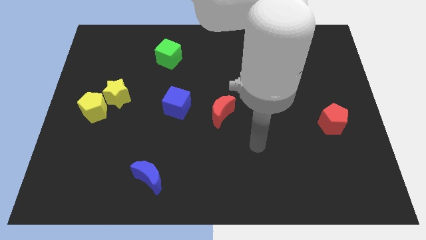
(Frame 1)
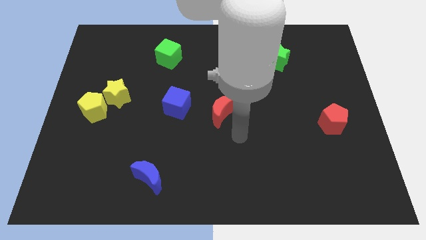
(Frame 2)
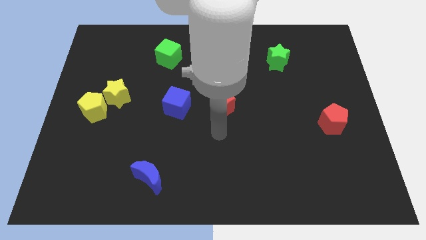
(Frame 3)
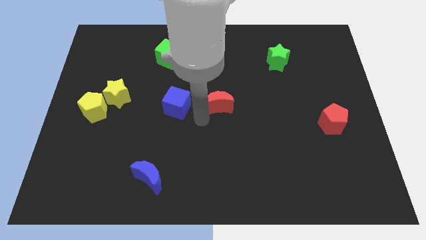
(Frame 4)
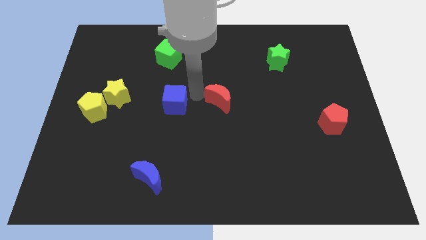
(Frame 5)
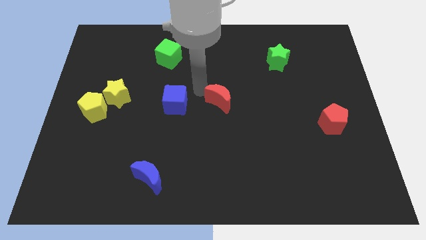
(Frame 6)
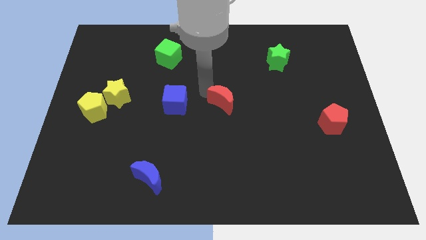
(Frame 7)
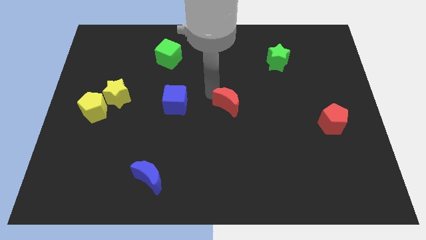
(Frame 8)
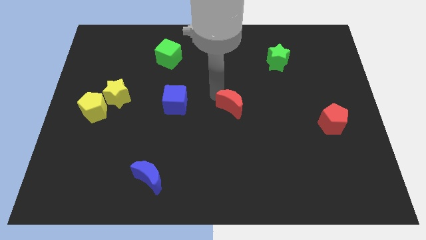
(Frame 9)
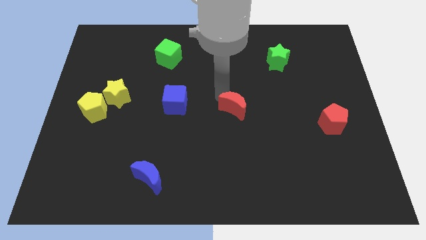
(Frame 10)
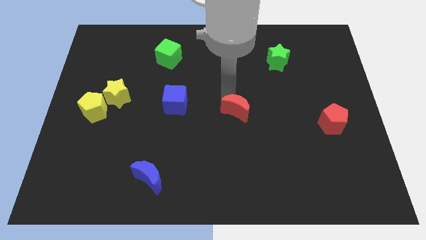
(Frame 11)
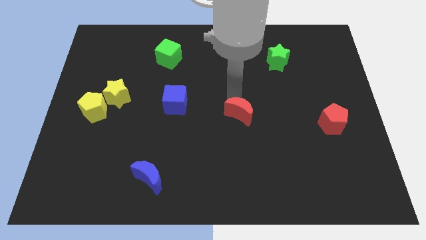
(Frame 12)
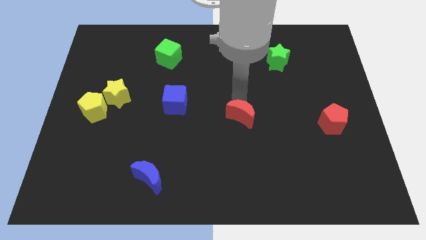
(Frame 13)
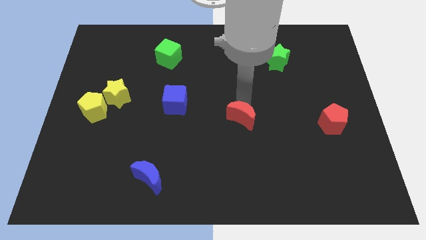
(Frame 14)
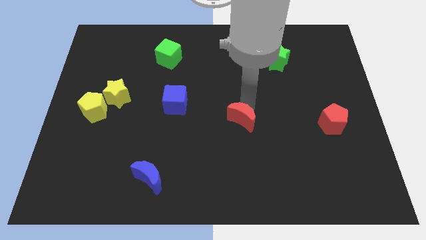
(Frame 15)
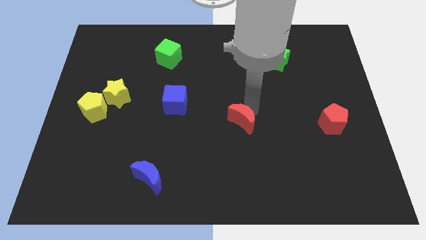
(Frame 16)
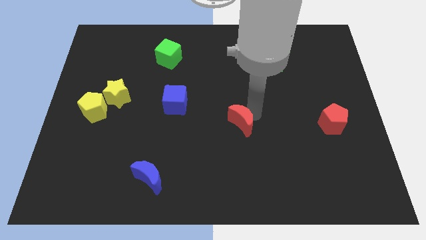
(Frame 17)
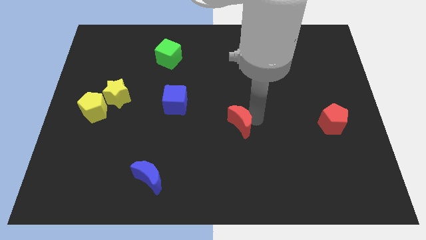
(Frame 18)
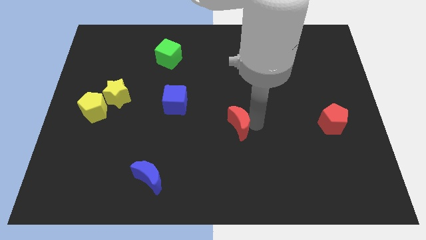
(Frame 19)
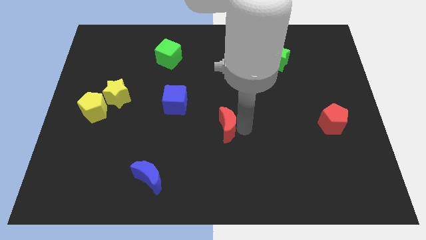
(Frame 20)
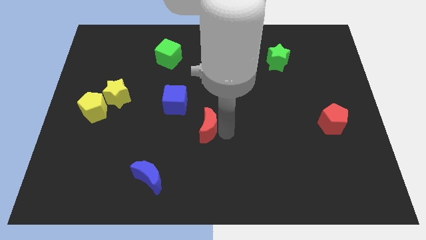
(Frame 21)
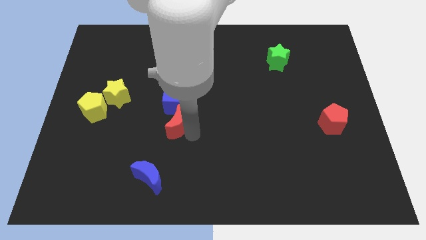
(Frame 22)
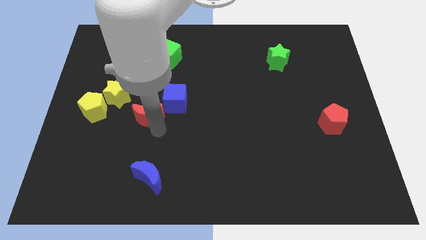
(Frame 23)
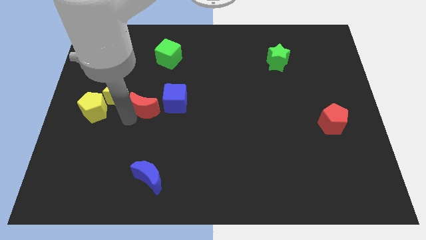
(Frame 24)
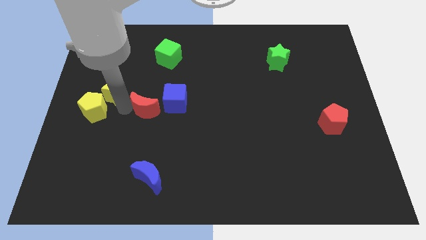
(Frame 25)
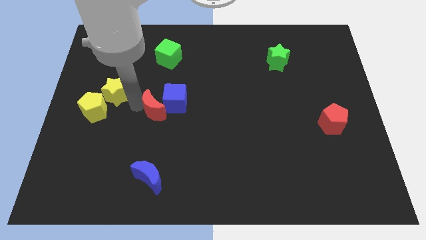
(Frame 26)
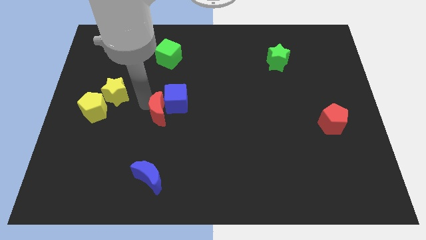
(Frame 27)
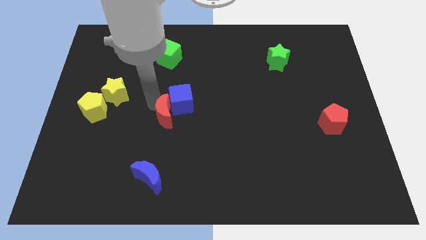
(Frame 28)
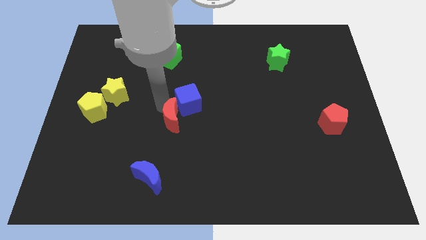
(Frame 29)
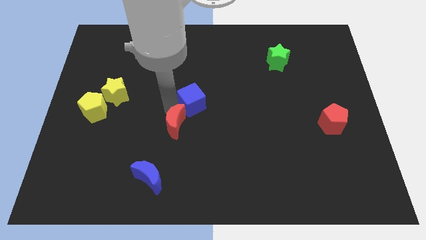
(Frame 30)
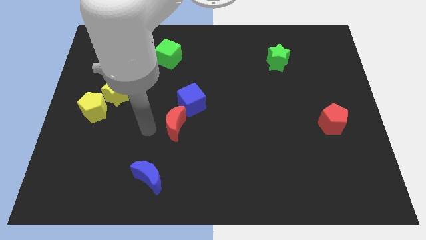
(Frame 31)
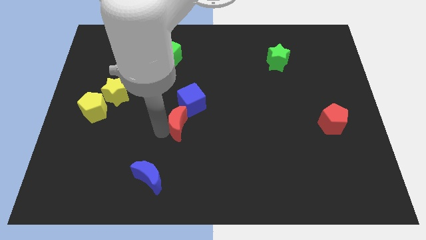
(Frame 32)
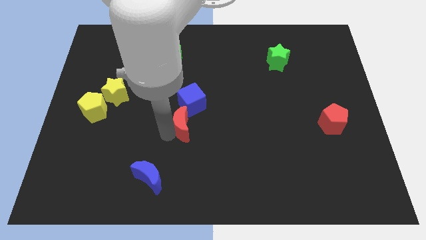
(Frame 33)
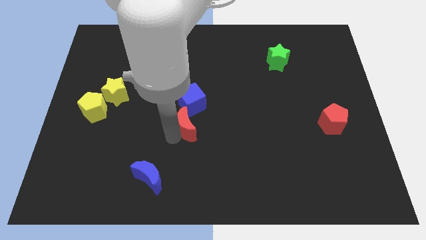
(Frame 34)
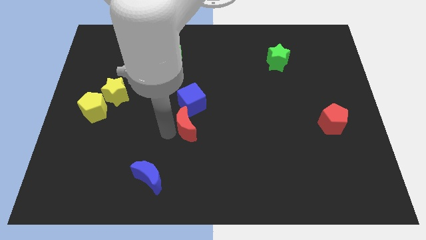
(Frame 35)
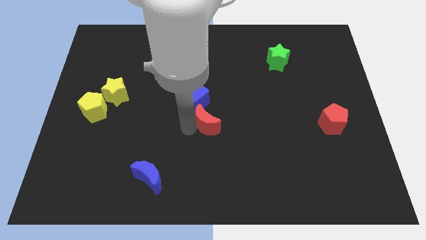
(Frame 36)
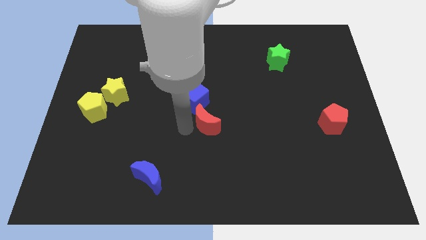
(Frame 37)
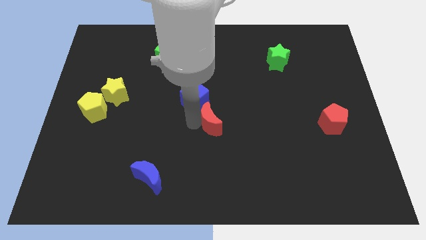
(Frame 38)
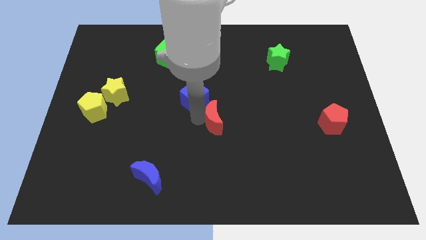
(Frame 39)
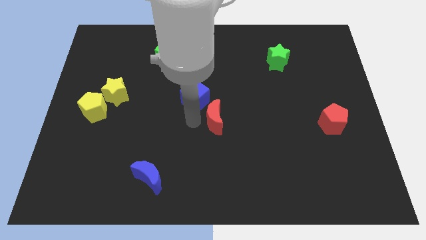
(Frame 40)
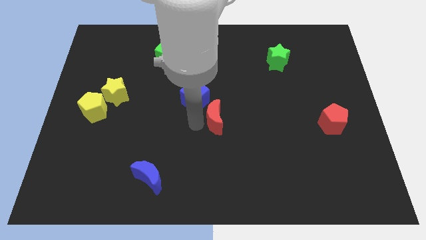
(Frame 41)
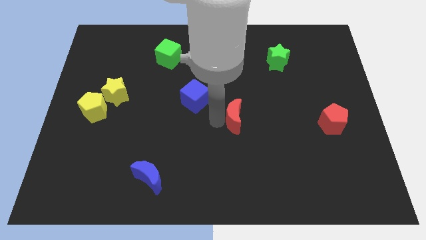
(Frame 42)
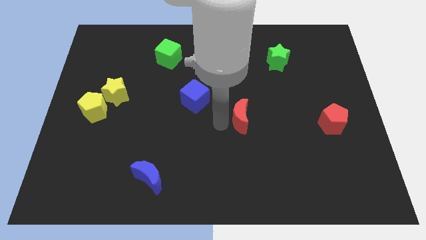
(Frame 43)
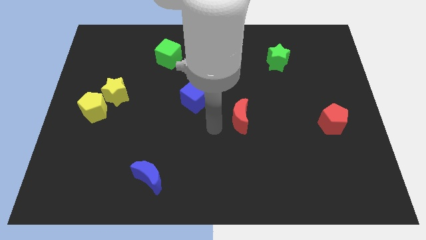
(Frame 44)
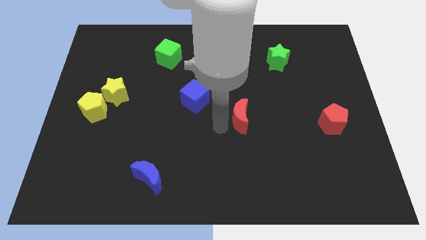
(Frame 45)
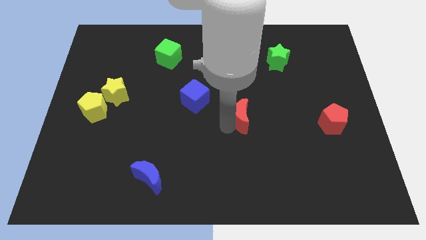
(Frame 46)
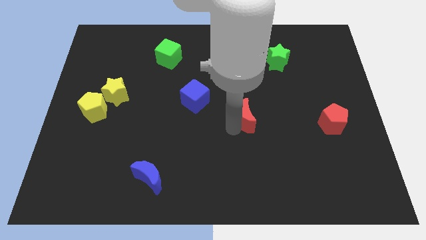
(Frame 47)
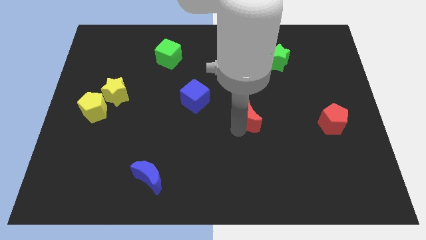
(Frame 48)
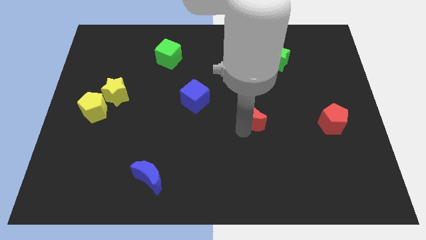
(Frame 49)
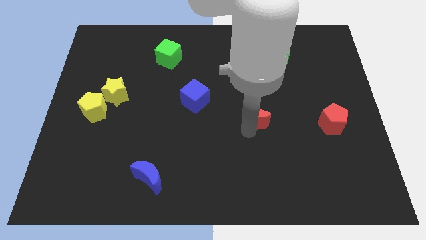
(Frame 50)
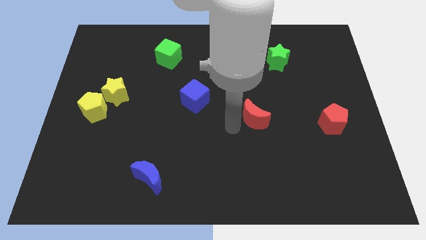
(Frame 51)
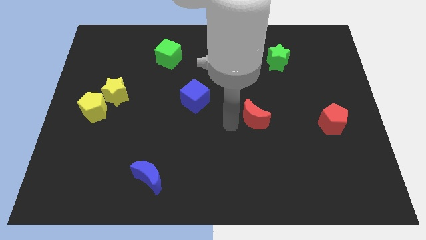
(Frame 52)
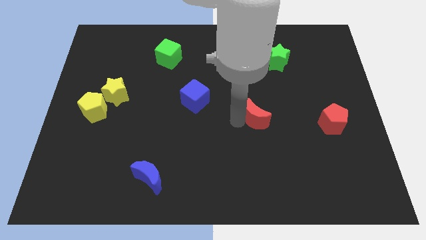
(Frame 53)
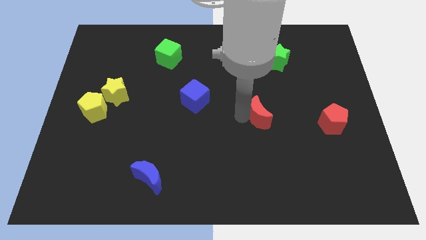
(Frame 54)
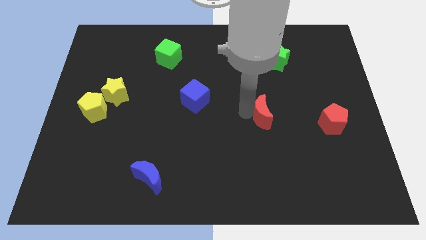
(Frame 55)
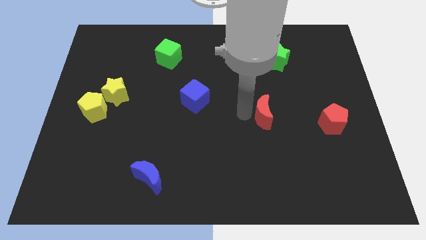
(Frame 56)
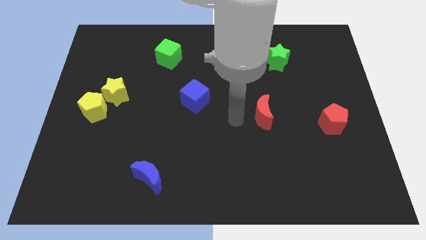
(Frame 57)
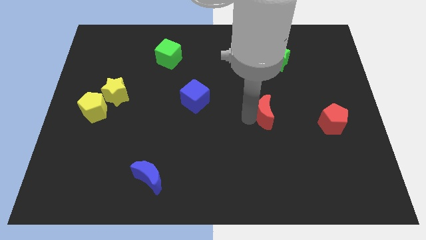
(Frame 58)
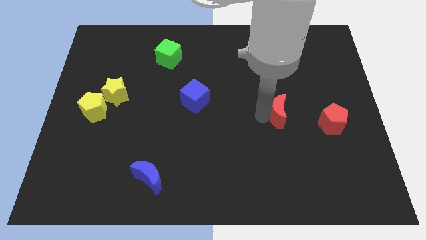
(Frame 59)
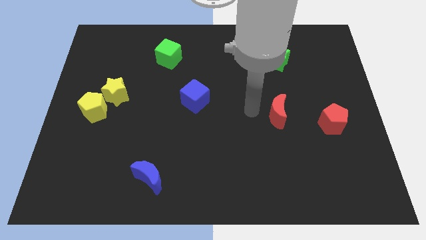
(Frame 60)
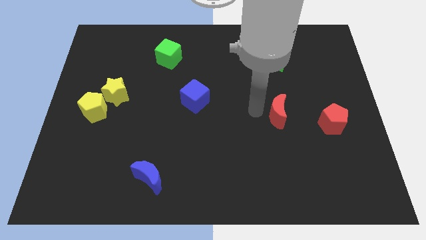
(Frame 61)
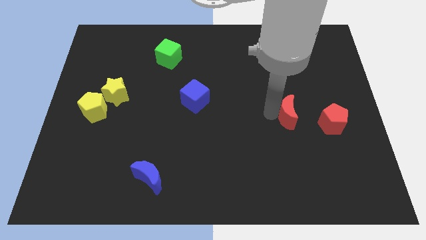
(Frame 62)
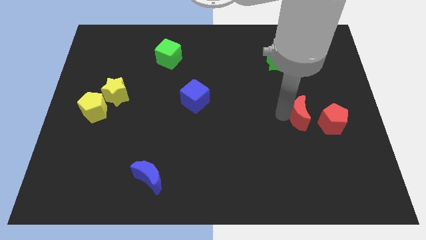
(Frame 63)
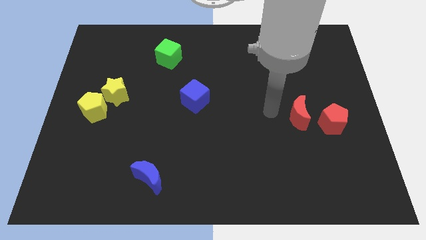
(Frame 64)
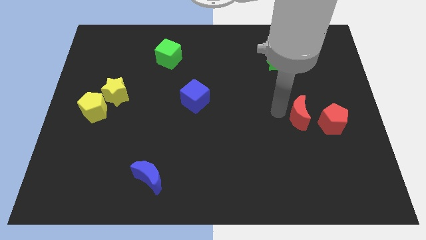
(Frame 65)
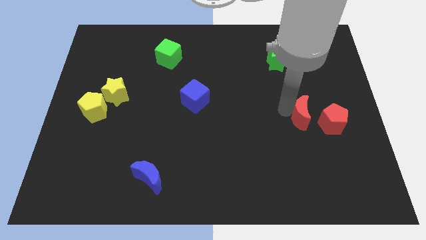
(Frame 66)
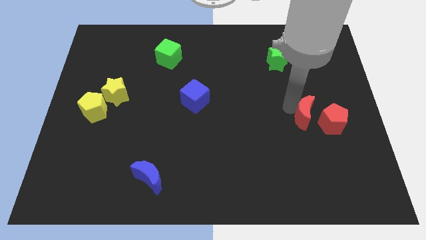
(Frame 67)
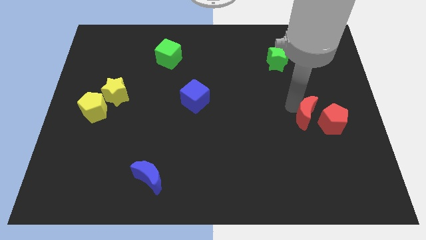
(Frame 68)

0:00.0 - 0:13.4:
push the red moon towards the red pentagon
